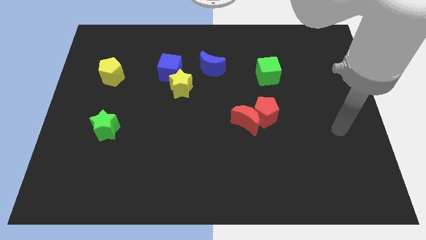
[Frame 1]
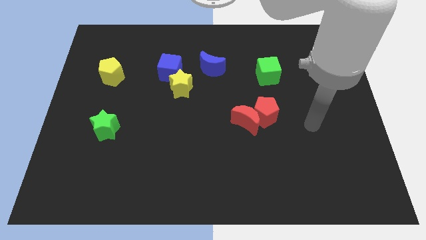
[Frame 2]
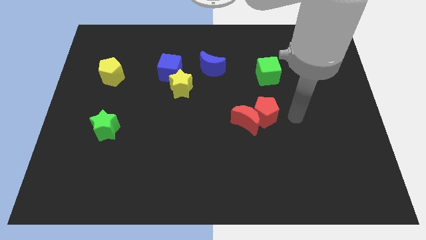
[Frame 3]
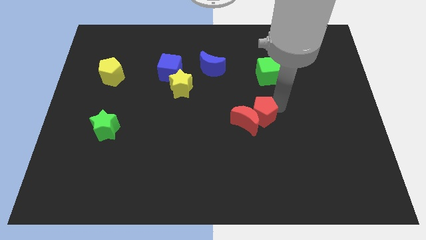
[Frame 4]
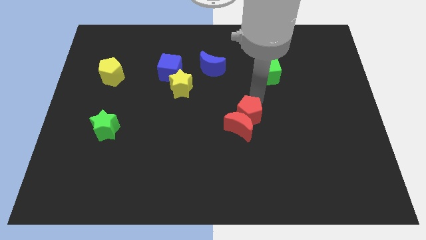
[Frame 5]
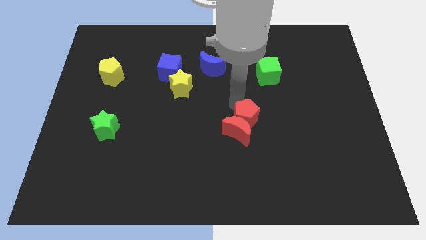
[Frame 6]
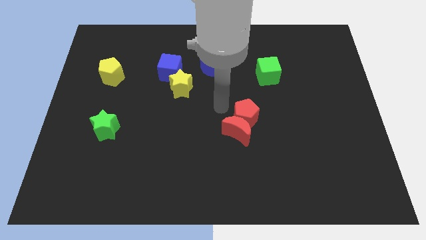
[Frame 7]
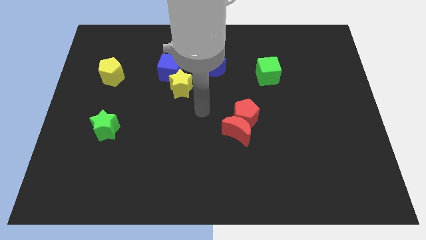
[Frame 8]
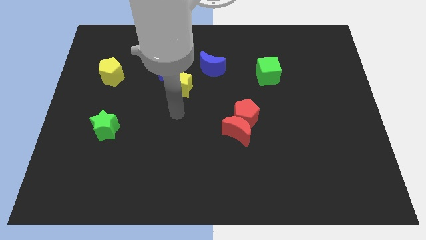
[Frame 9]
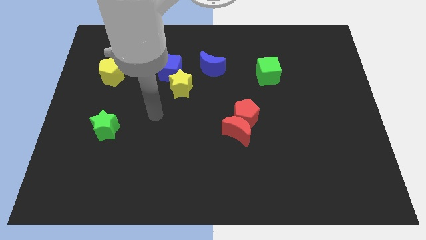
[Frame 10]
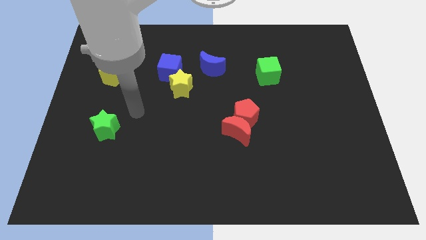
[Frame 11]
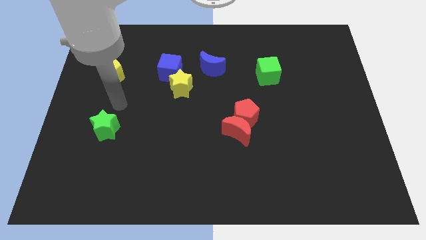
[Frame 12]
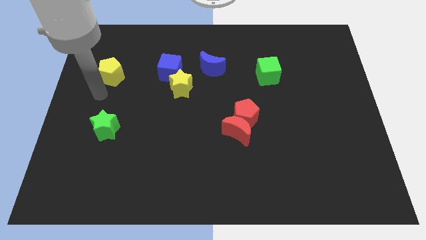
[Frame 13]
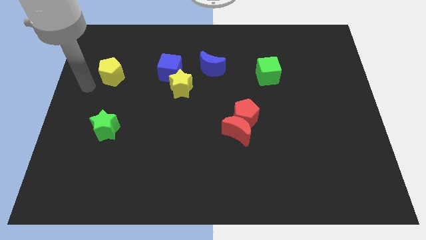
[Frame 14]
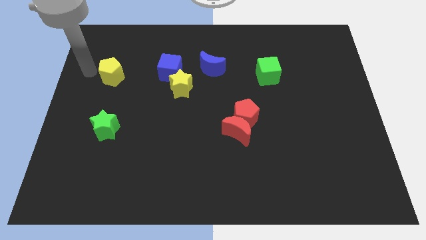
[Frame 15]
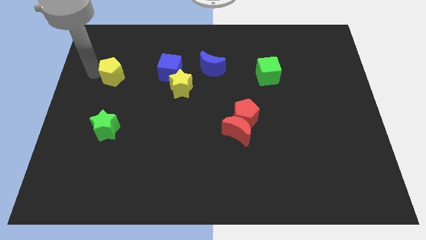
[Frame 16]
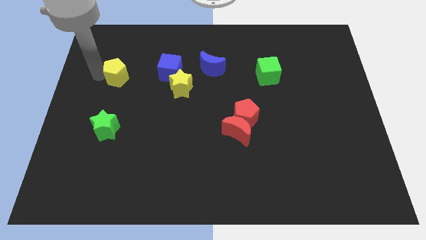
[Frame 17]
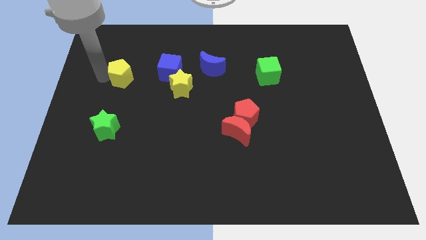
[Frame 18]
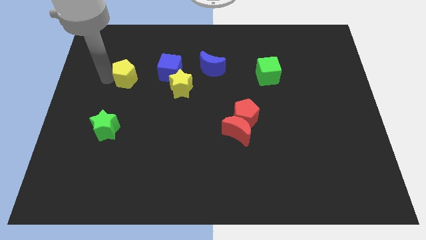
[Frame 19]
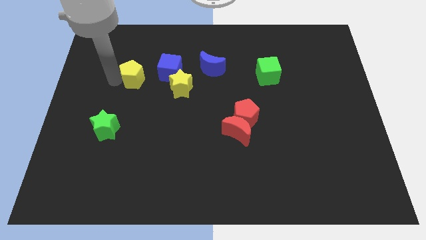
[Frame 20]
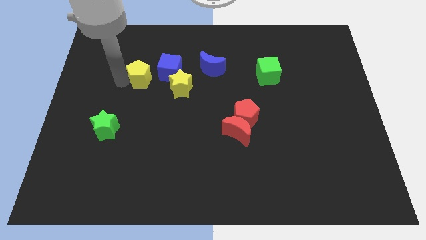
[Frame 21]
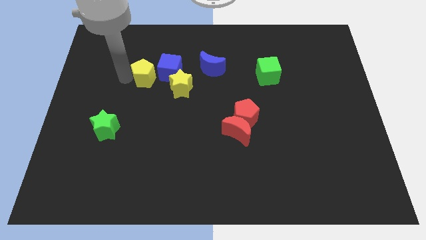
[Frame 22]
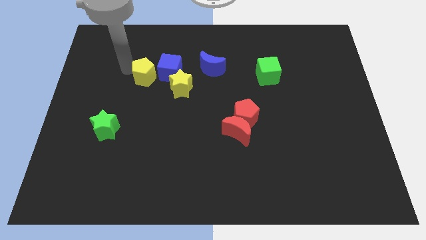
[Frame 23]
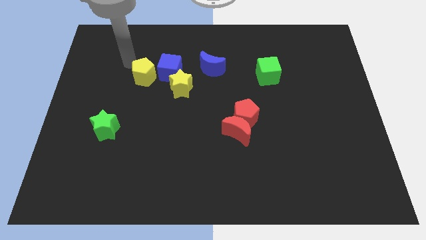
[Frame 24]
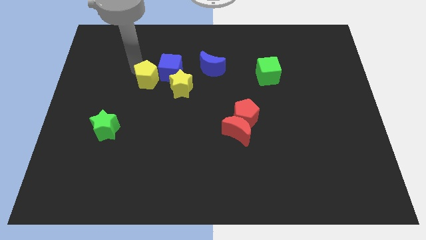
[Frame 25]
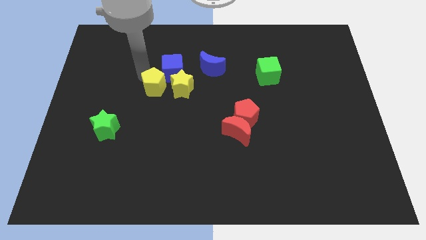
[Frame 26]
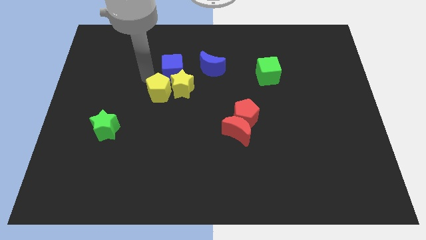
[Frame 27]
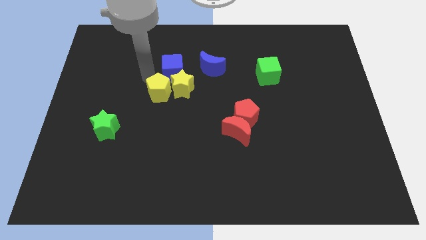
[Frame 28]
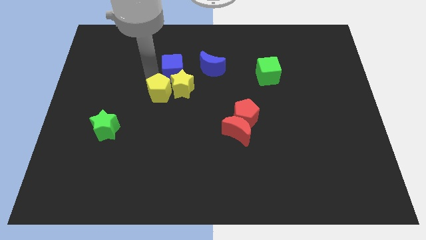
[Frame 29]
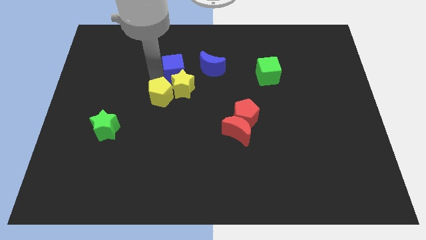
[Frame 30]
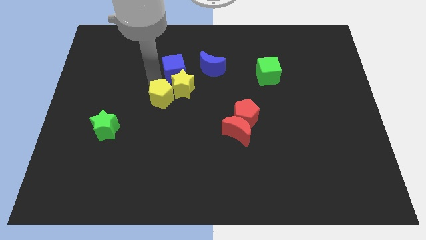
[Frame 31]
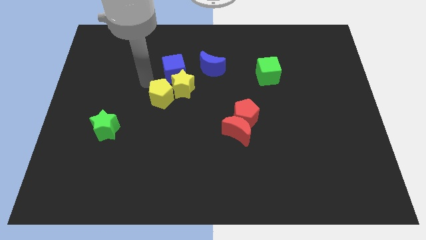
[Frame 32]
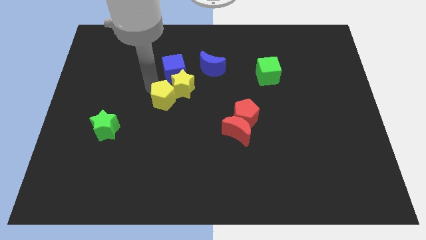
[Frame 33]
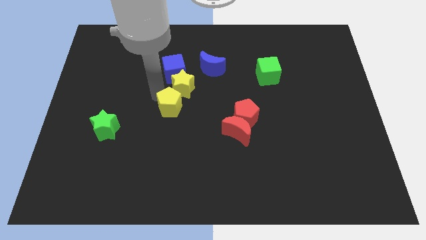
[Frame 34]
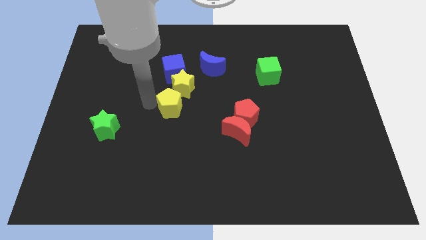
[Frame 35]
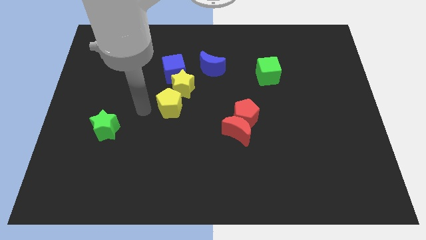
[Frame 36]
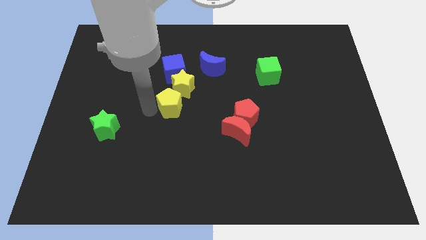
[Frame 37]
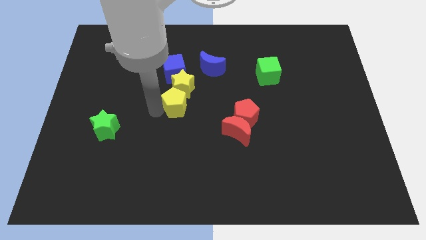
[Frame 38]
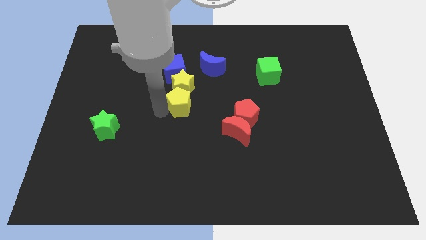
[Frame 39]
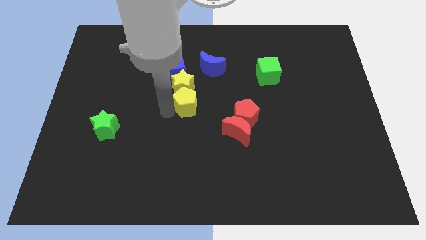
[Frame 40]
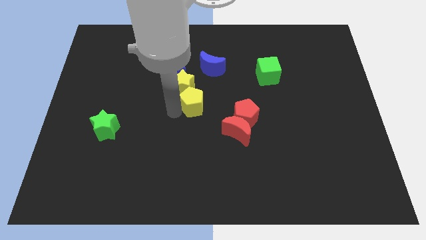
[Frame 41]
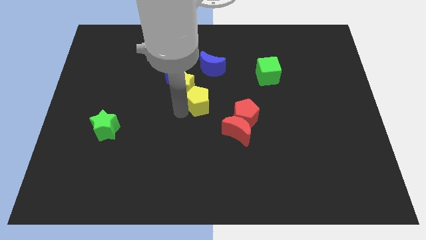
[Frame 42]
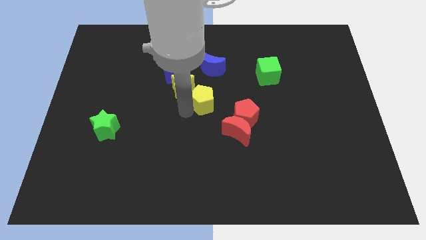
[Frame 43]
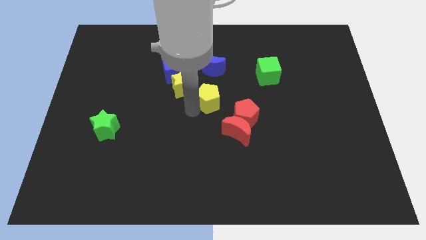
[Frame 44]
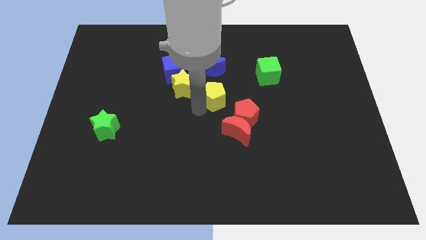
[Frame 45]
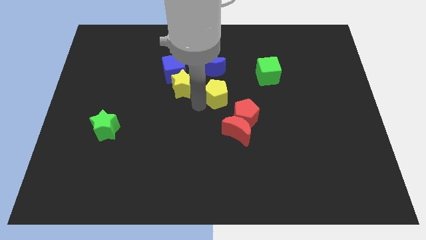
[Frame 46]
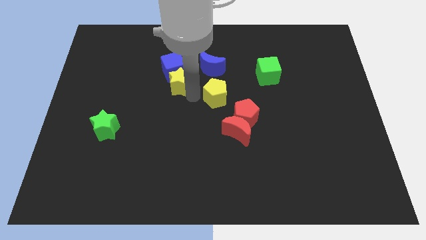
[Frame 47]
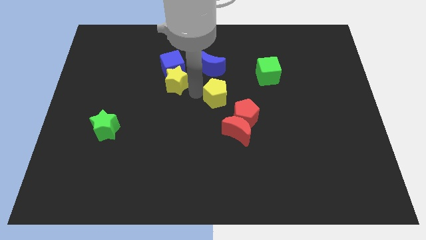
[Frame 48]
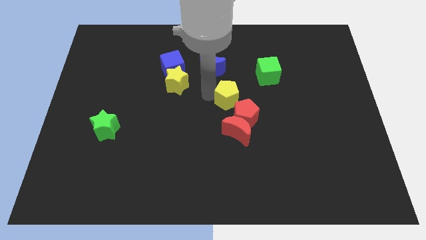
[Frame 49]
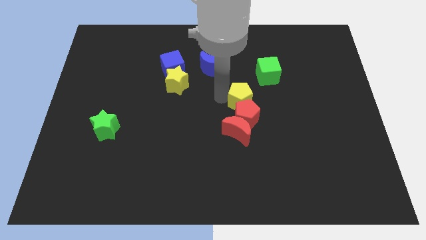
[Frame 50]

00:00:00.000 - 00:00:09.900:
push the yellow pentagon to the top right side of the red pentagon

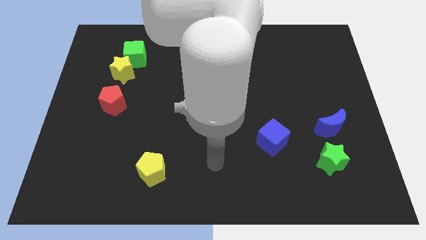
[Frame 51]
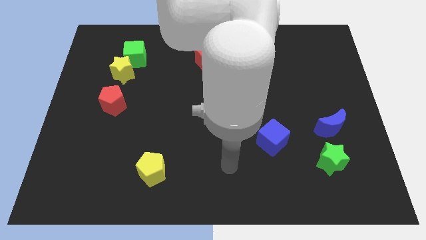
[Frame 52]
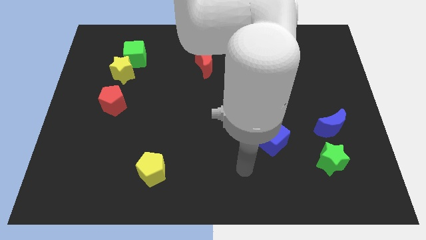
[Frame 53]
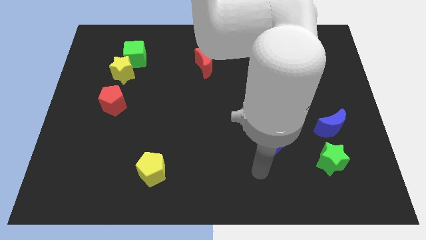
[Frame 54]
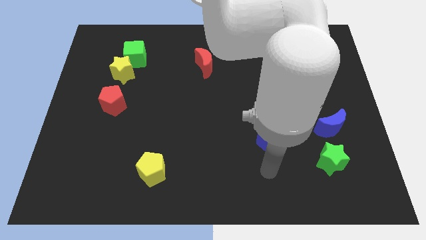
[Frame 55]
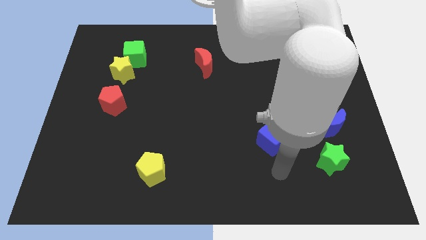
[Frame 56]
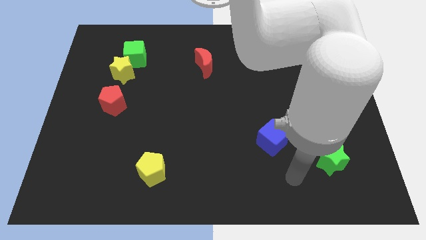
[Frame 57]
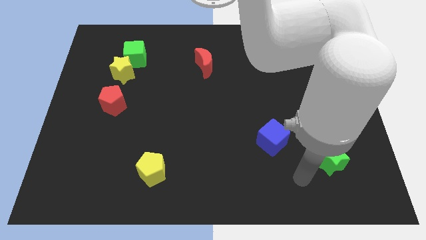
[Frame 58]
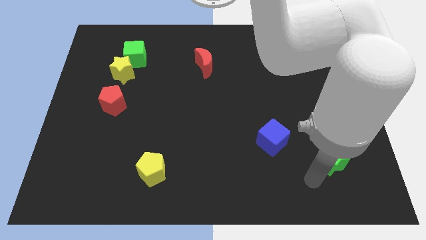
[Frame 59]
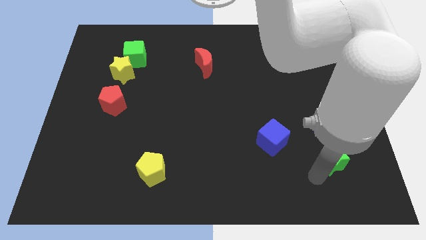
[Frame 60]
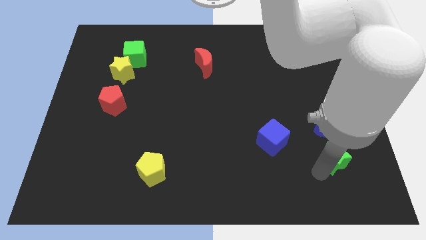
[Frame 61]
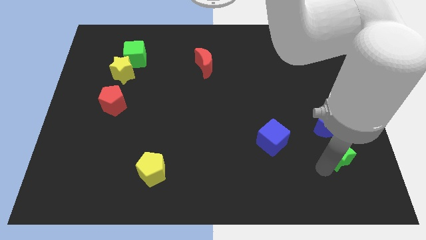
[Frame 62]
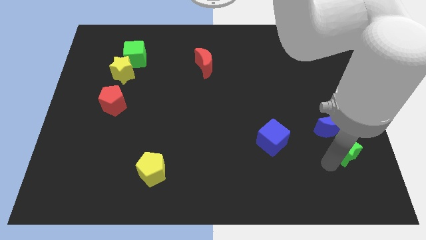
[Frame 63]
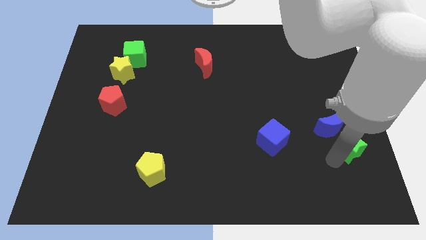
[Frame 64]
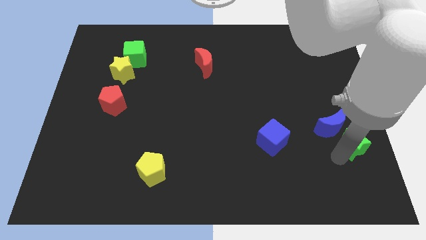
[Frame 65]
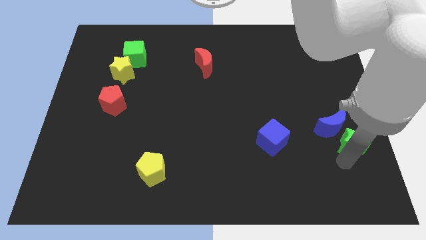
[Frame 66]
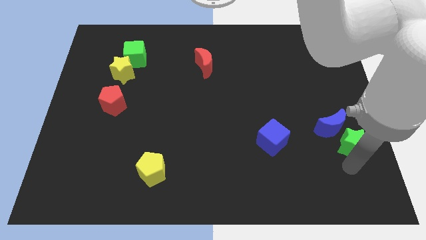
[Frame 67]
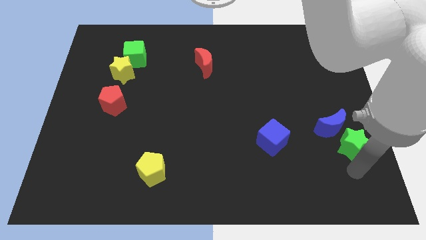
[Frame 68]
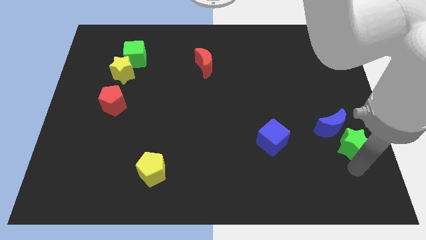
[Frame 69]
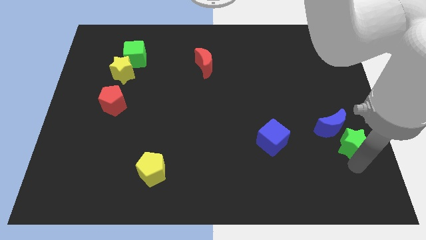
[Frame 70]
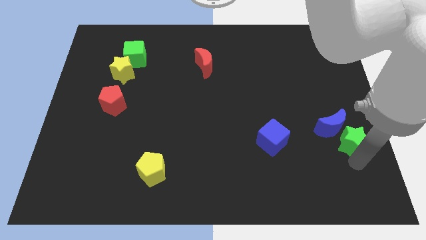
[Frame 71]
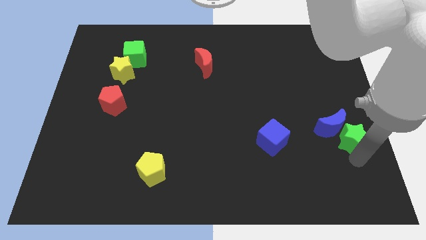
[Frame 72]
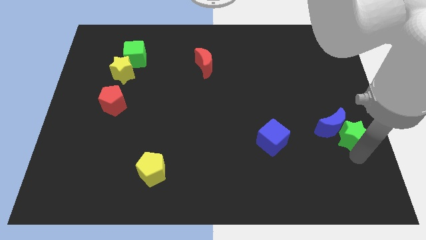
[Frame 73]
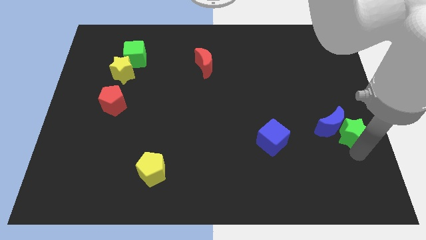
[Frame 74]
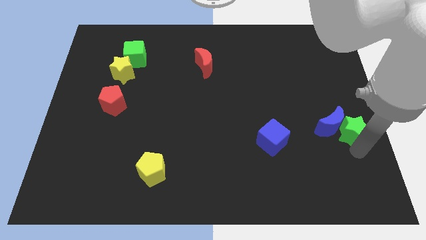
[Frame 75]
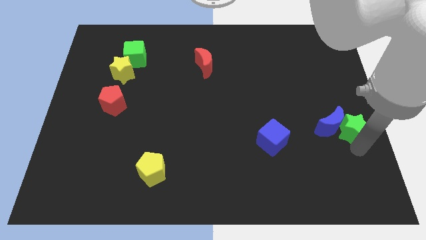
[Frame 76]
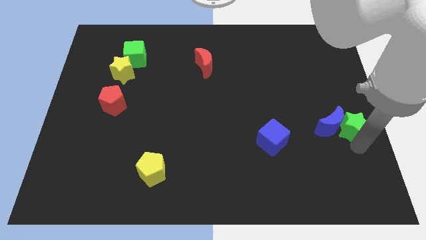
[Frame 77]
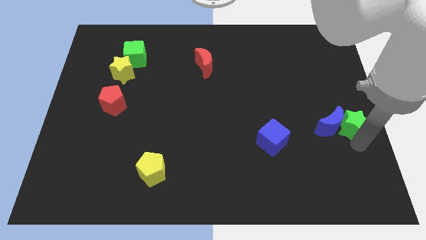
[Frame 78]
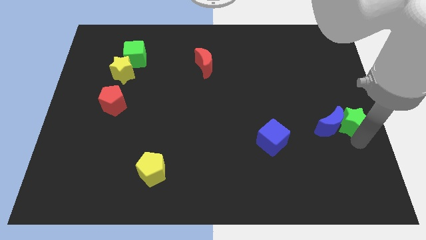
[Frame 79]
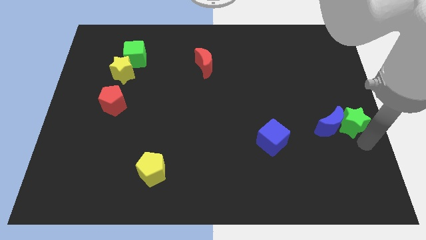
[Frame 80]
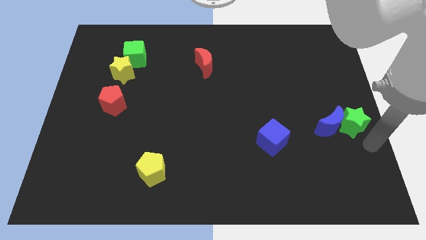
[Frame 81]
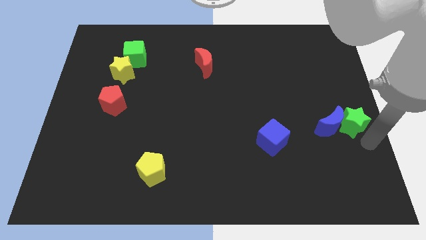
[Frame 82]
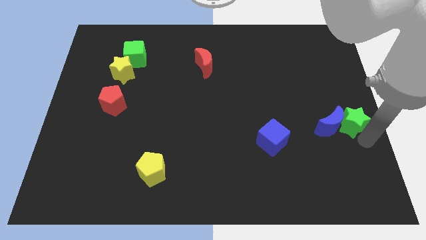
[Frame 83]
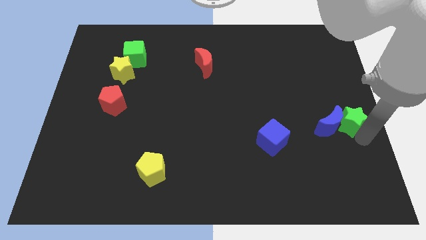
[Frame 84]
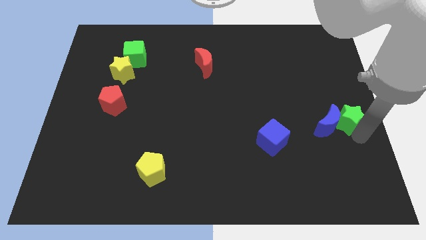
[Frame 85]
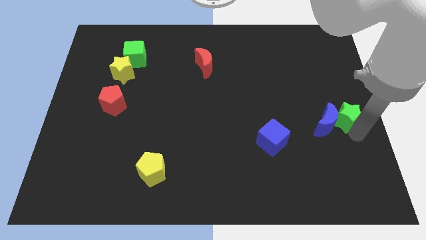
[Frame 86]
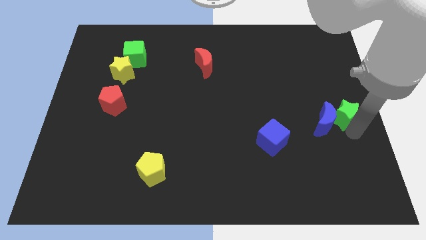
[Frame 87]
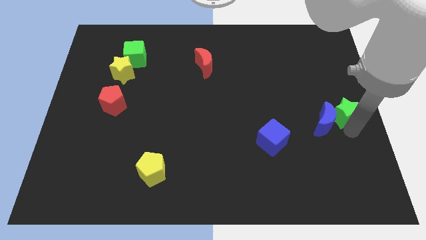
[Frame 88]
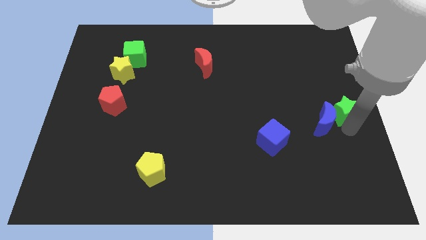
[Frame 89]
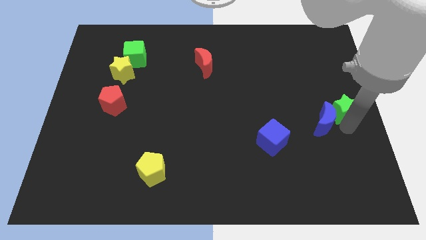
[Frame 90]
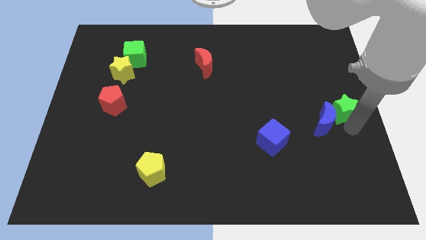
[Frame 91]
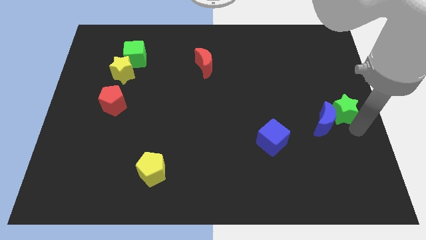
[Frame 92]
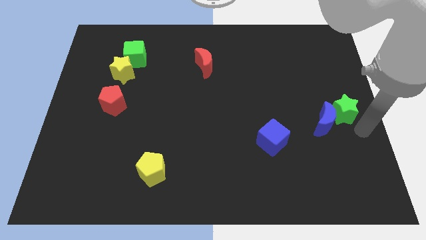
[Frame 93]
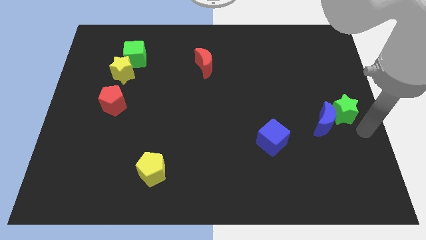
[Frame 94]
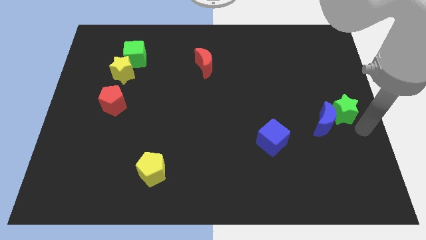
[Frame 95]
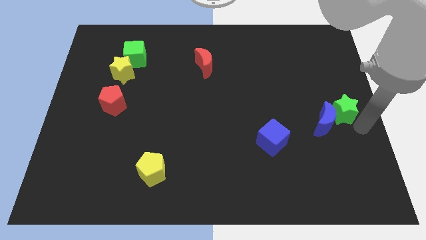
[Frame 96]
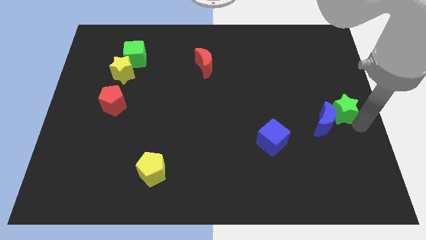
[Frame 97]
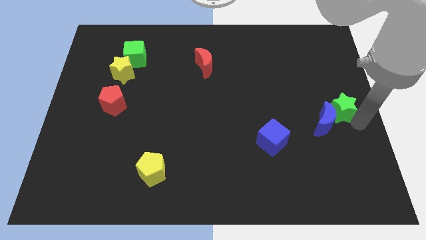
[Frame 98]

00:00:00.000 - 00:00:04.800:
move the green star to the top of the blue moon
